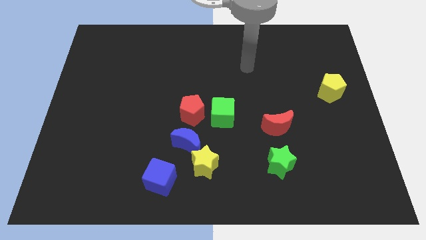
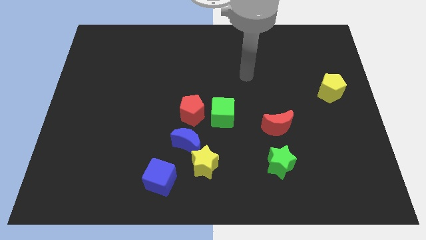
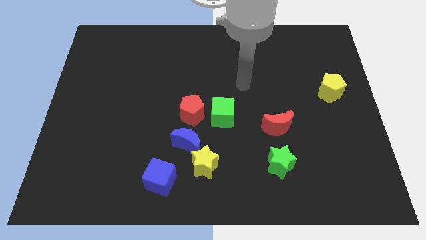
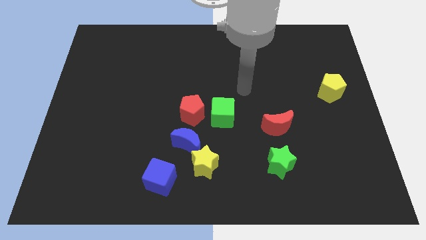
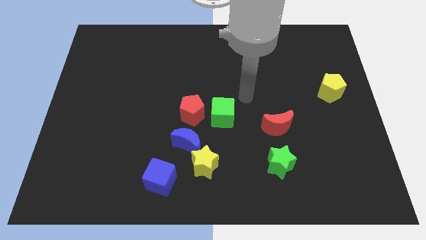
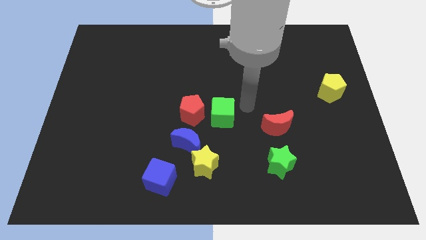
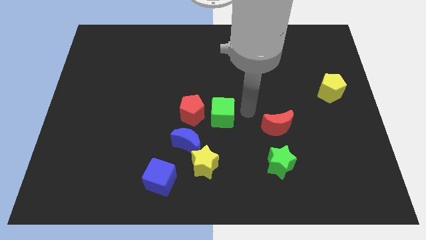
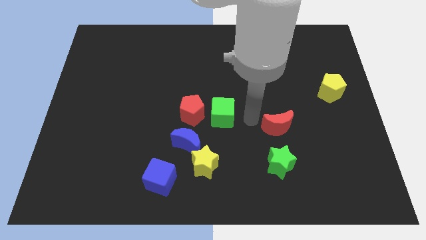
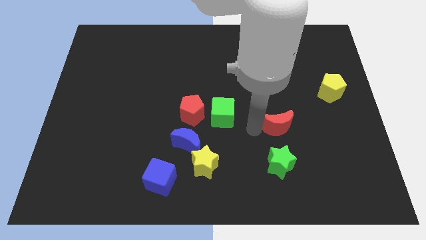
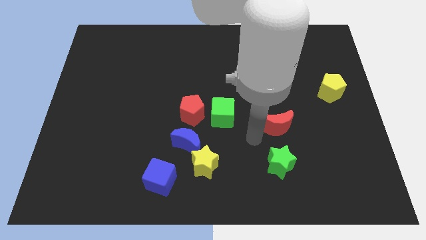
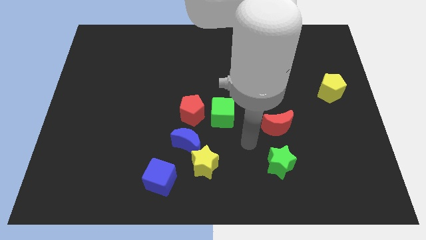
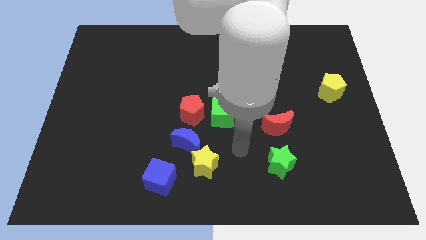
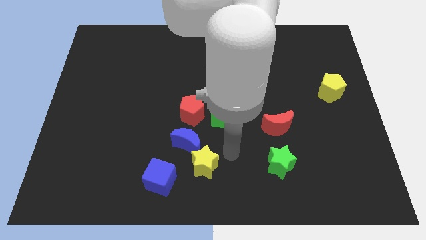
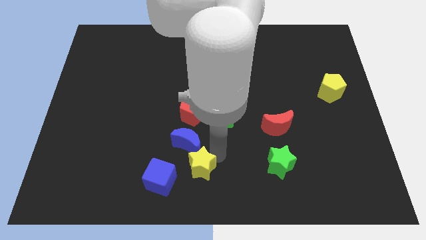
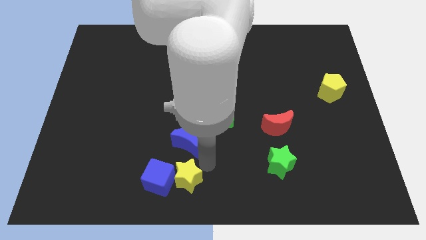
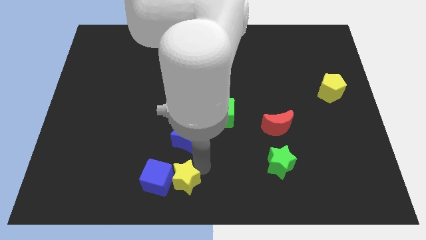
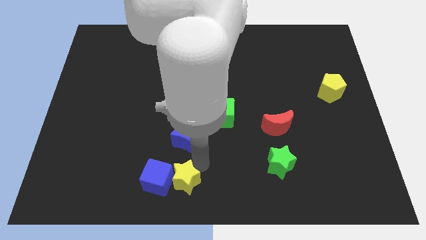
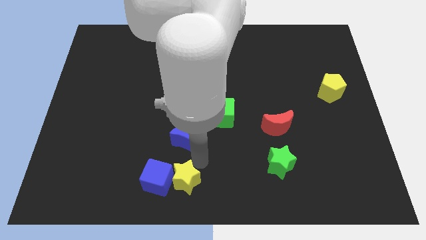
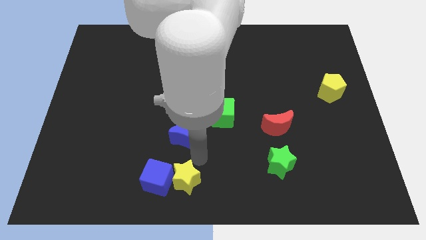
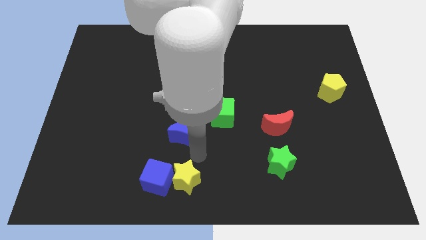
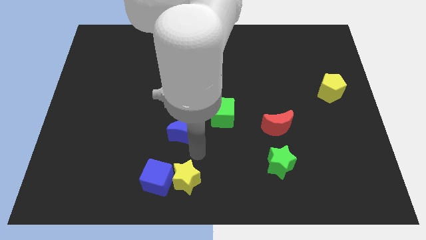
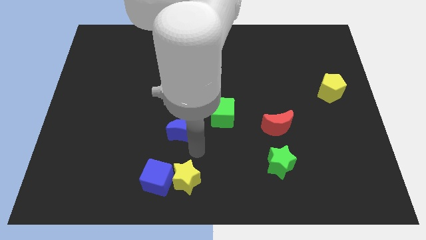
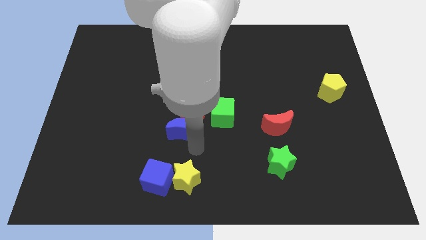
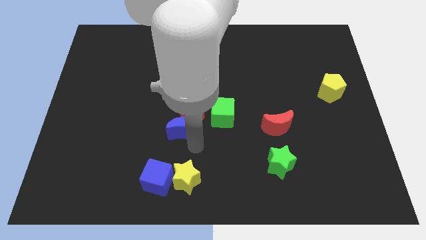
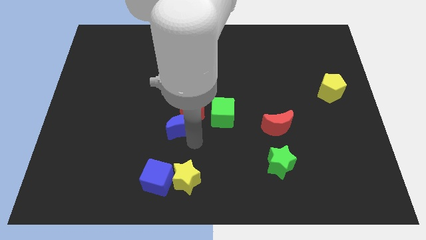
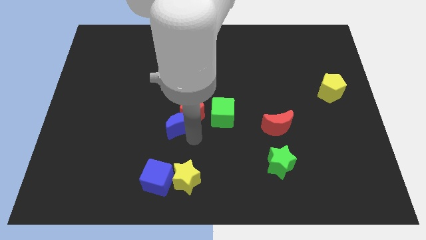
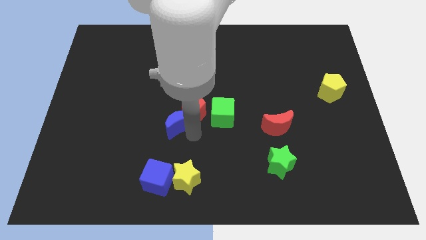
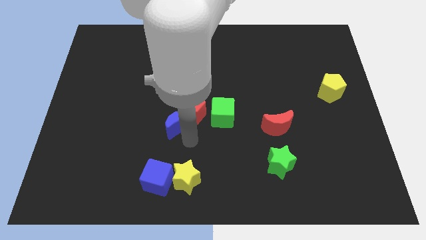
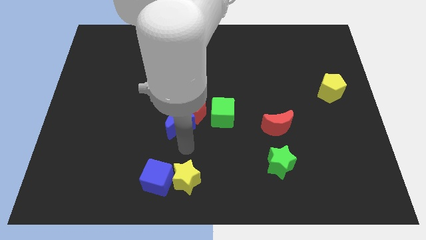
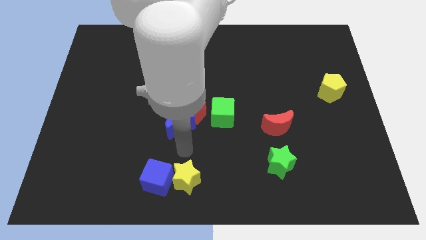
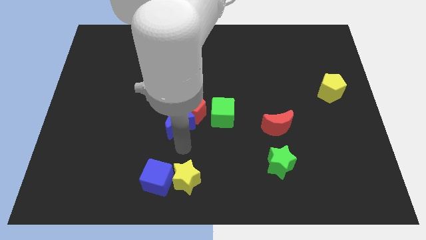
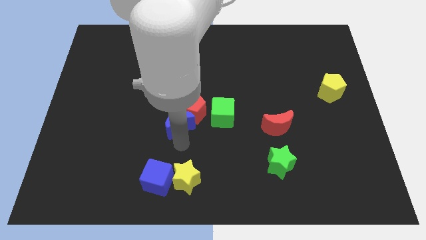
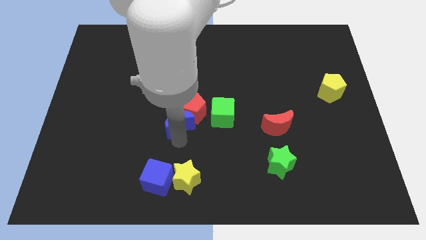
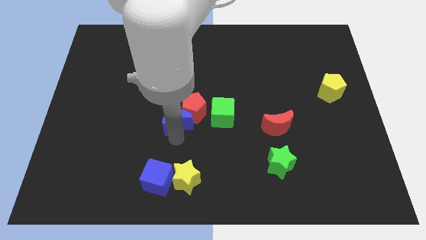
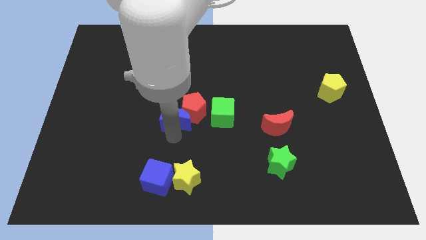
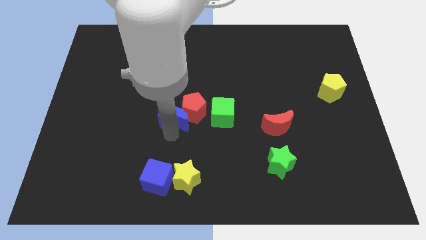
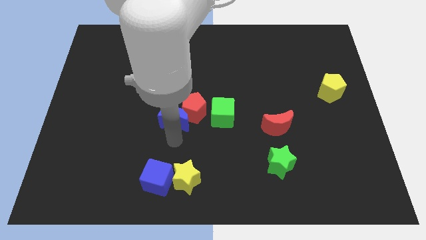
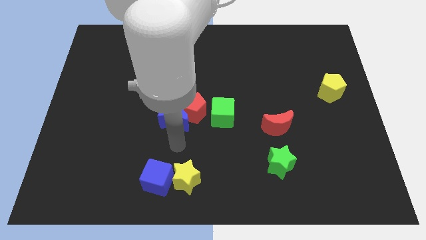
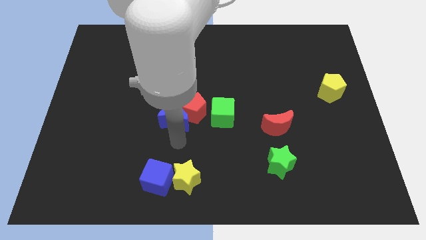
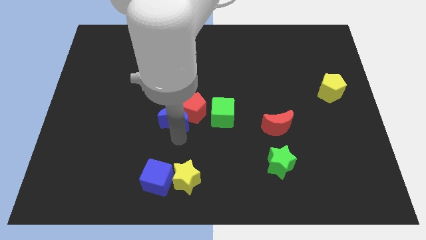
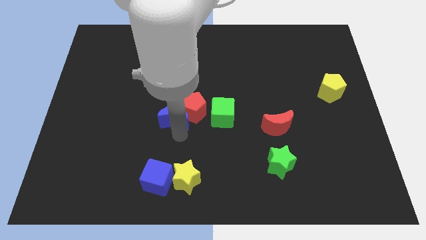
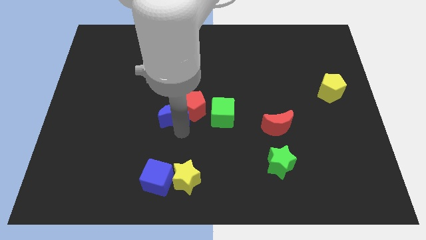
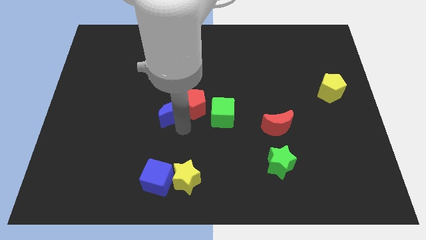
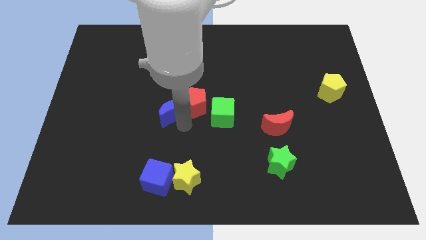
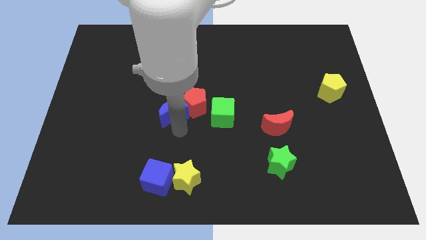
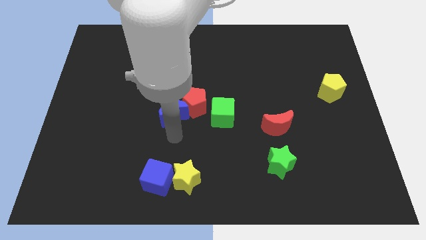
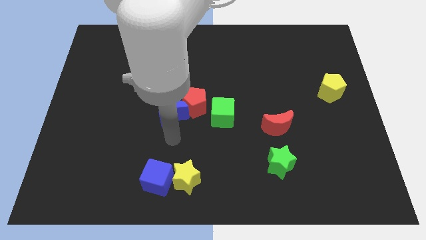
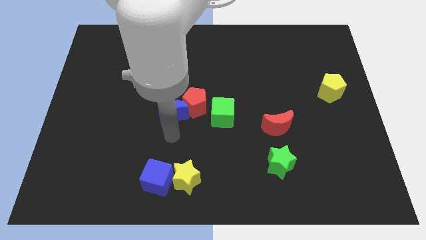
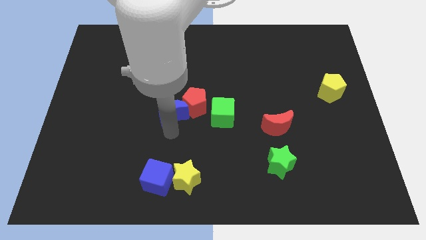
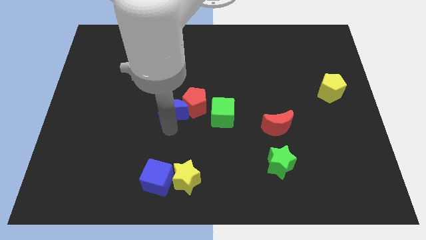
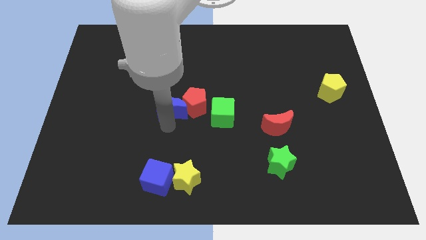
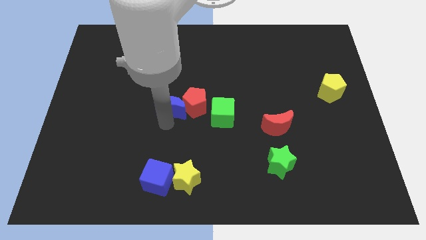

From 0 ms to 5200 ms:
put the blue moon to the top left of the red pentagon
